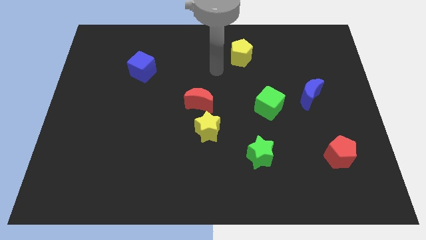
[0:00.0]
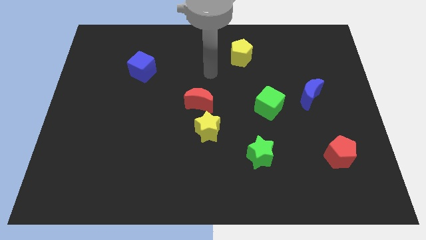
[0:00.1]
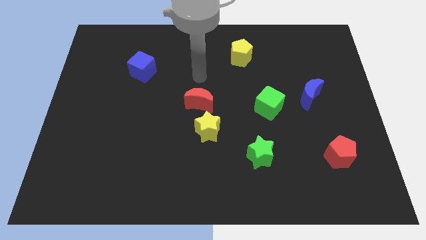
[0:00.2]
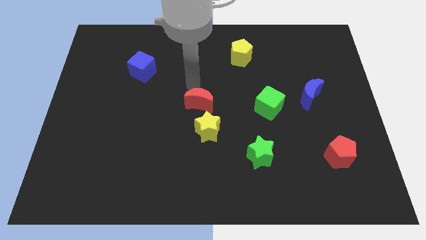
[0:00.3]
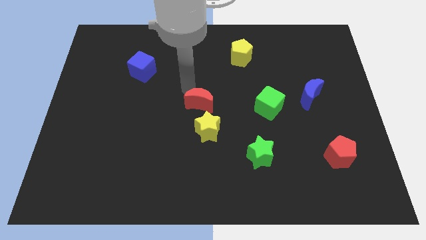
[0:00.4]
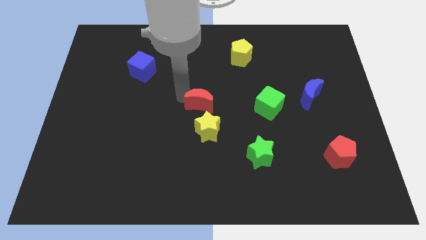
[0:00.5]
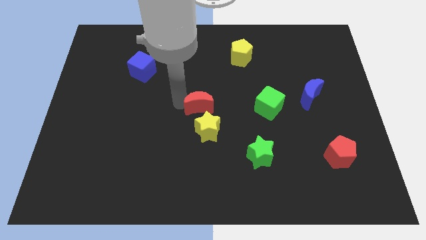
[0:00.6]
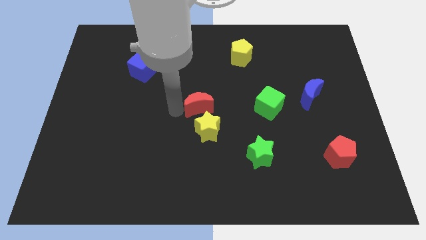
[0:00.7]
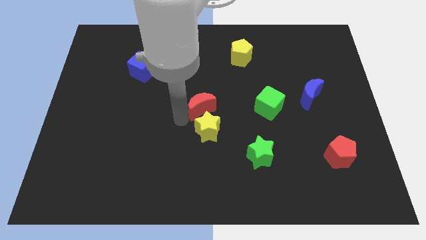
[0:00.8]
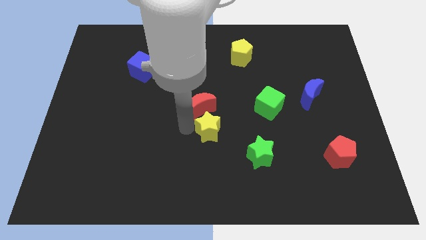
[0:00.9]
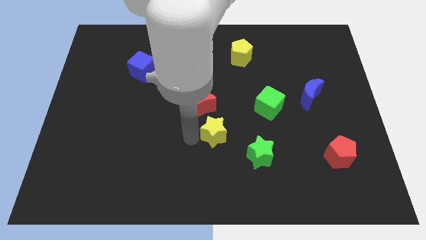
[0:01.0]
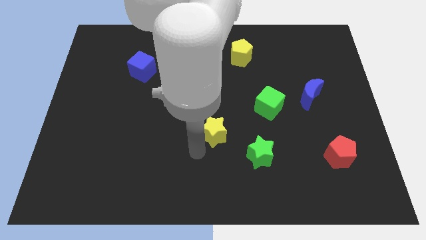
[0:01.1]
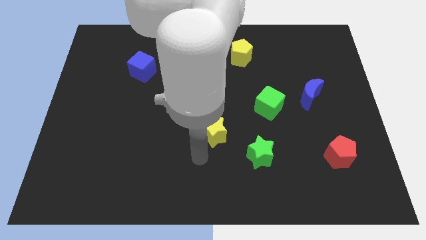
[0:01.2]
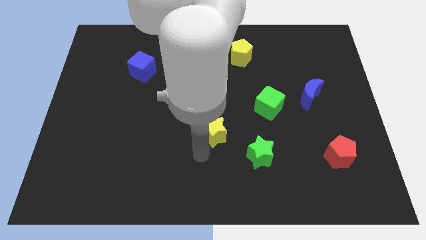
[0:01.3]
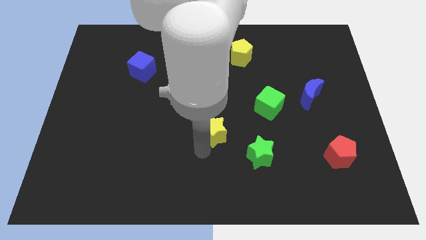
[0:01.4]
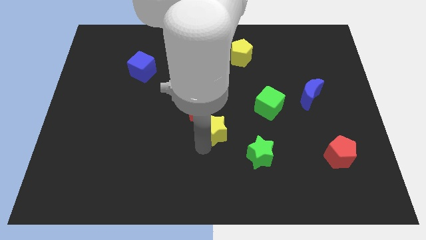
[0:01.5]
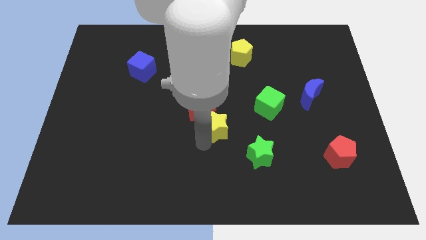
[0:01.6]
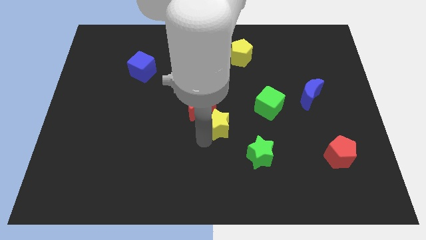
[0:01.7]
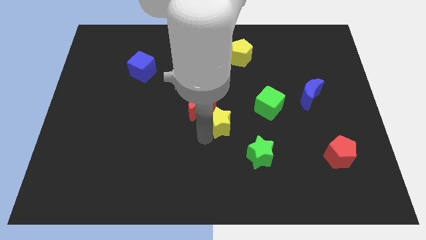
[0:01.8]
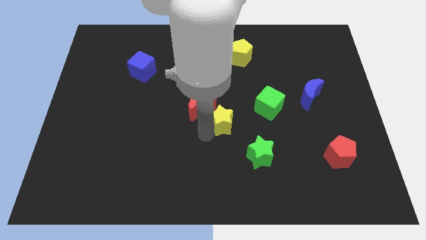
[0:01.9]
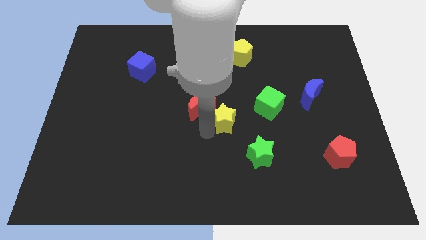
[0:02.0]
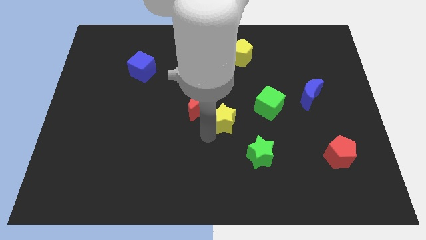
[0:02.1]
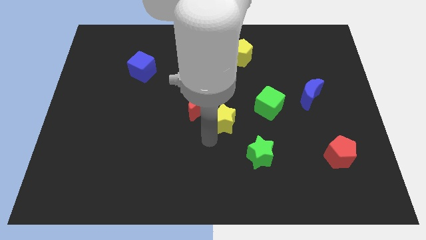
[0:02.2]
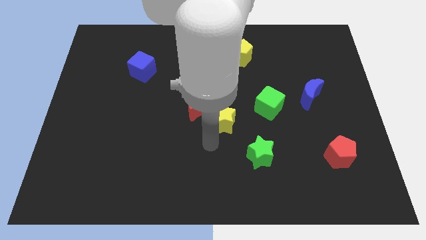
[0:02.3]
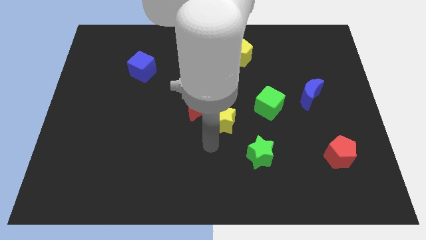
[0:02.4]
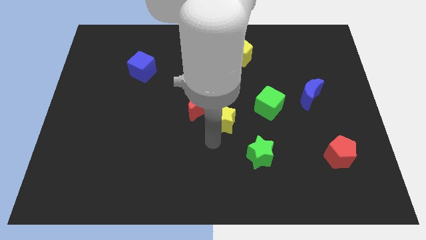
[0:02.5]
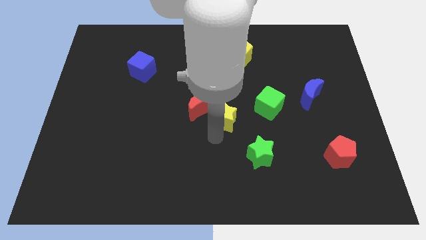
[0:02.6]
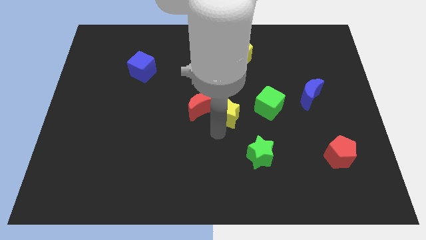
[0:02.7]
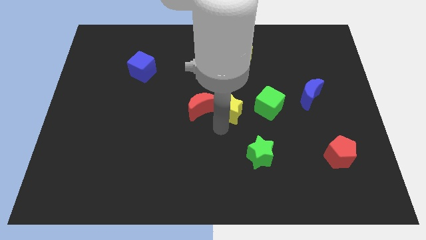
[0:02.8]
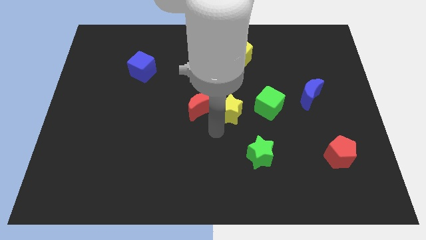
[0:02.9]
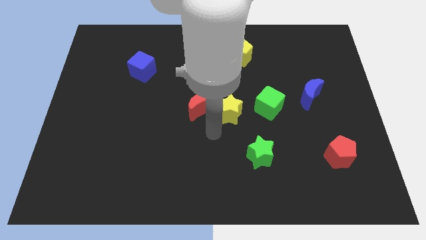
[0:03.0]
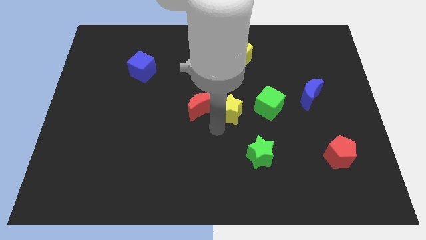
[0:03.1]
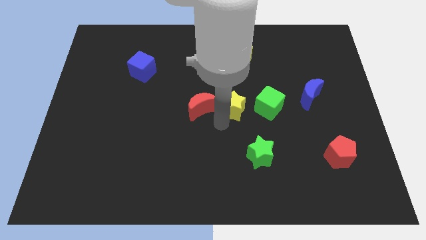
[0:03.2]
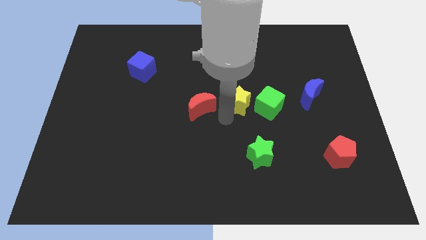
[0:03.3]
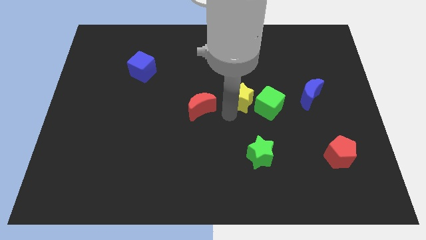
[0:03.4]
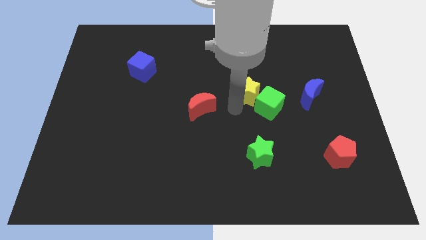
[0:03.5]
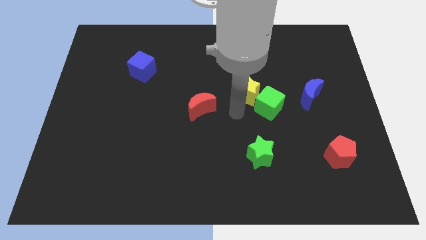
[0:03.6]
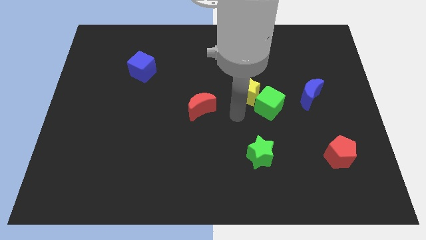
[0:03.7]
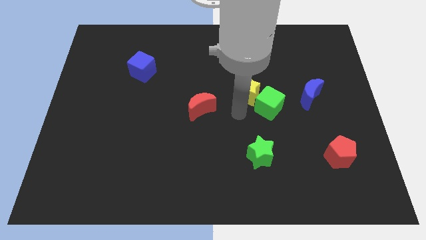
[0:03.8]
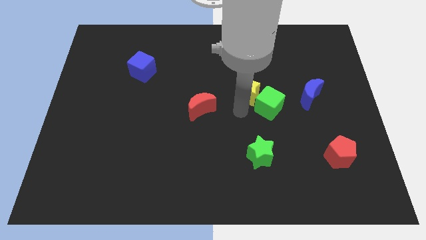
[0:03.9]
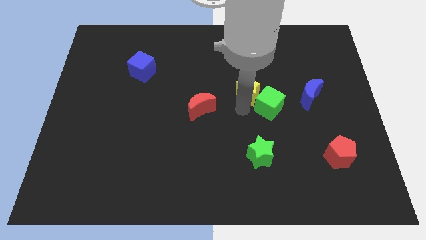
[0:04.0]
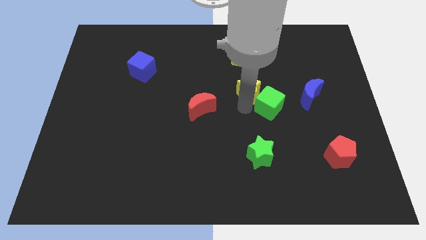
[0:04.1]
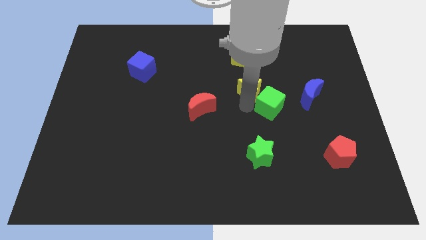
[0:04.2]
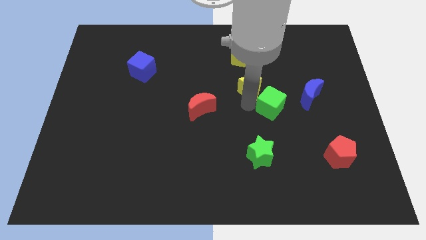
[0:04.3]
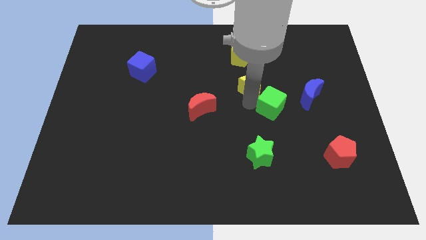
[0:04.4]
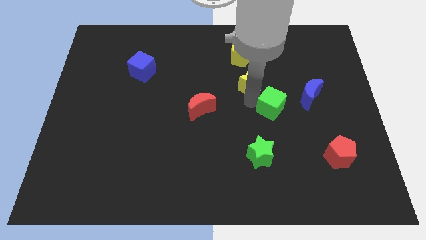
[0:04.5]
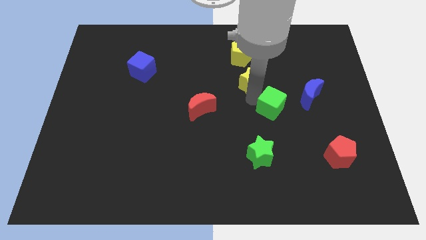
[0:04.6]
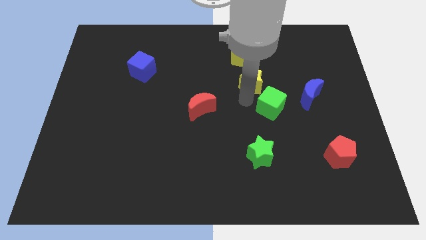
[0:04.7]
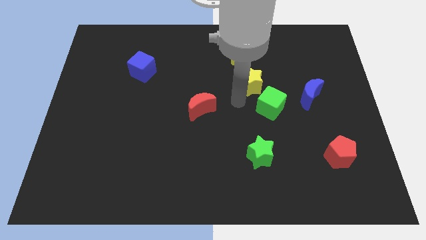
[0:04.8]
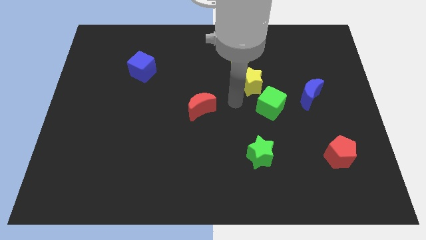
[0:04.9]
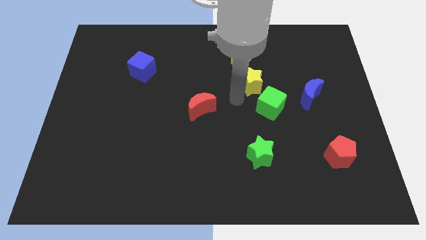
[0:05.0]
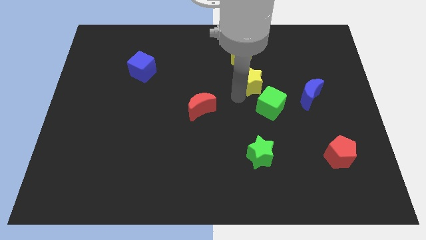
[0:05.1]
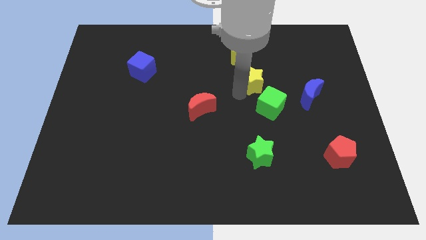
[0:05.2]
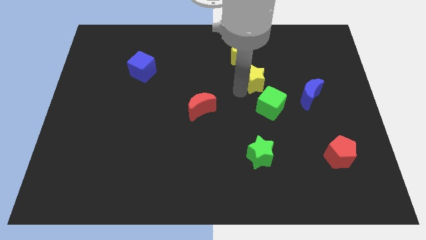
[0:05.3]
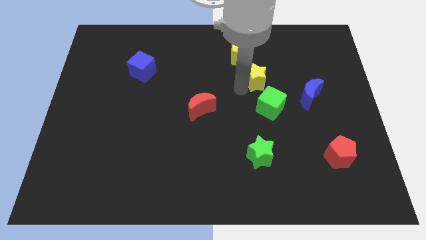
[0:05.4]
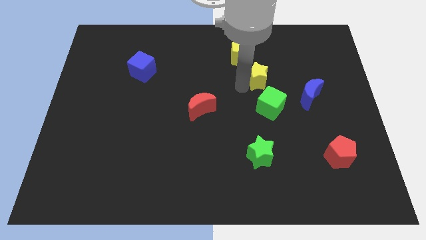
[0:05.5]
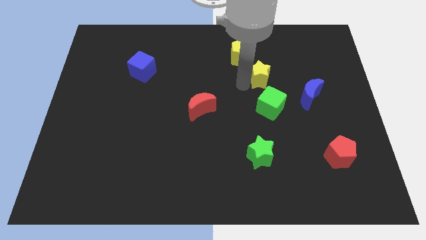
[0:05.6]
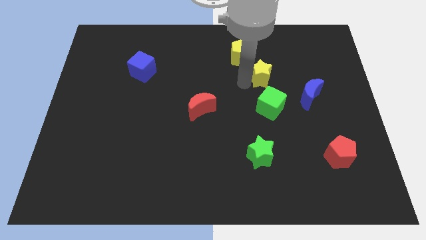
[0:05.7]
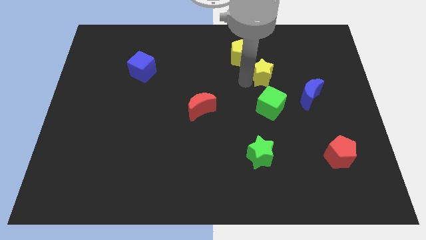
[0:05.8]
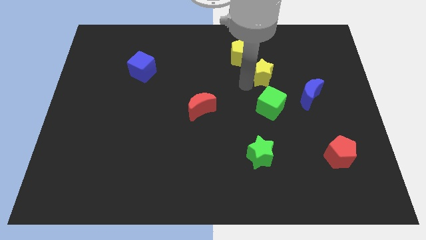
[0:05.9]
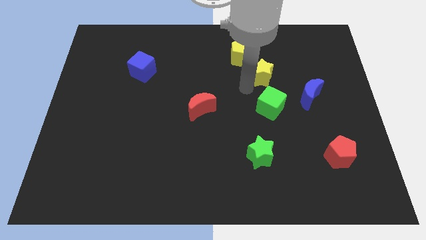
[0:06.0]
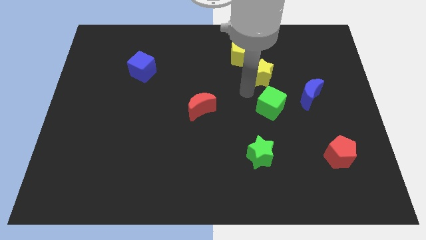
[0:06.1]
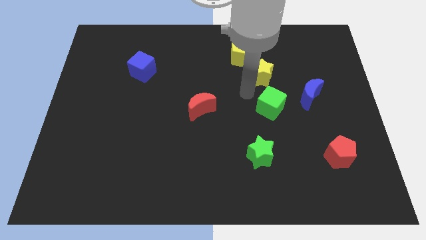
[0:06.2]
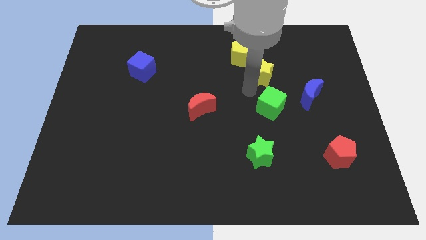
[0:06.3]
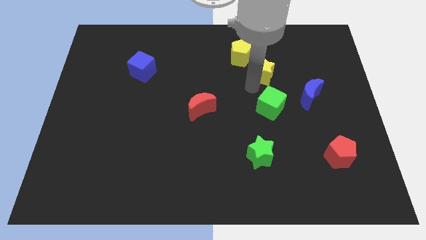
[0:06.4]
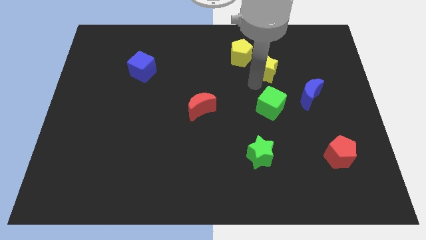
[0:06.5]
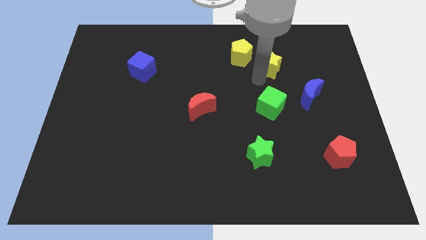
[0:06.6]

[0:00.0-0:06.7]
slide the yellow star right of the yellow pentagon

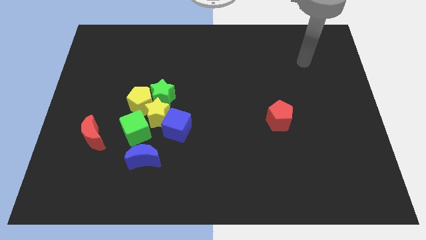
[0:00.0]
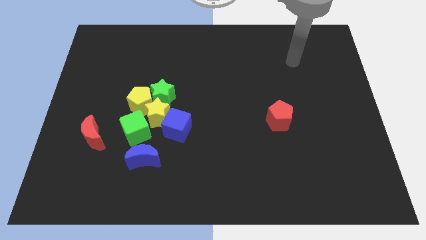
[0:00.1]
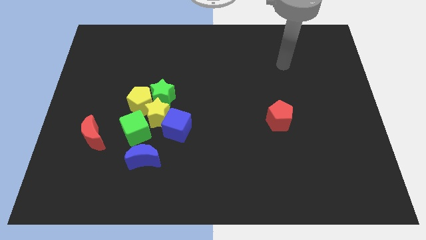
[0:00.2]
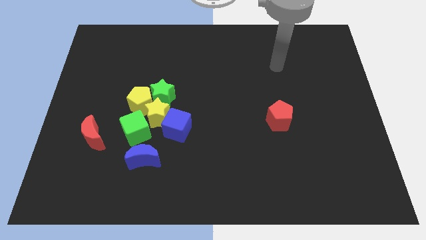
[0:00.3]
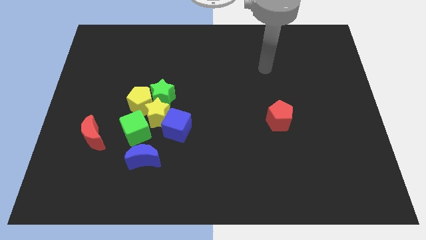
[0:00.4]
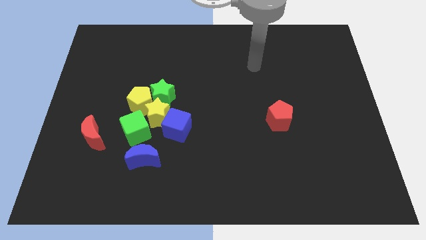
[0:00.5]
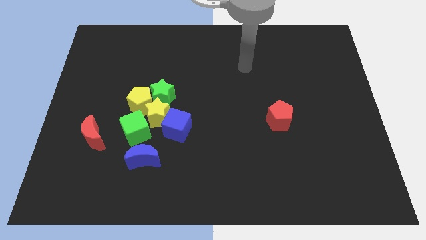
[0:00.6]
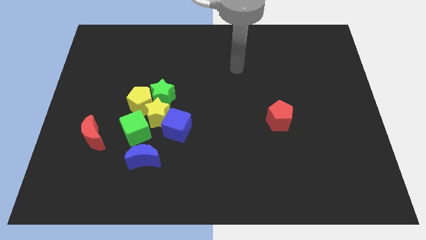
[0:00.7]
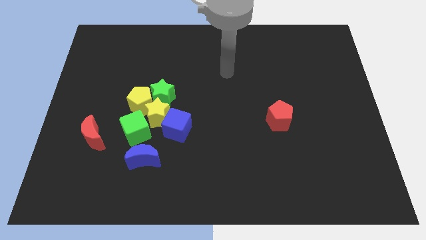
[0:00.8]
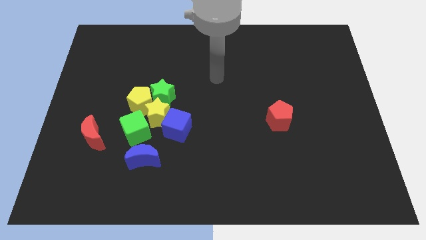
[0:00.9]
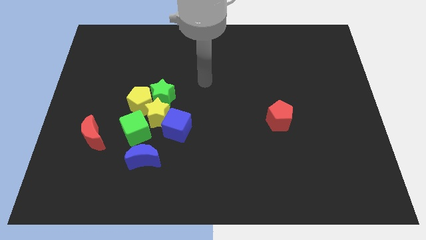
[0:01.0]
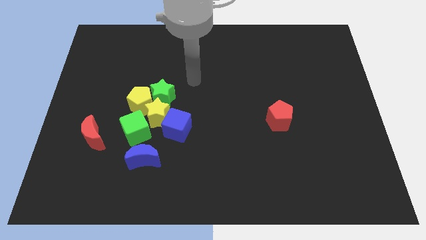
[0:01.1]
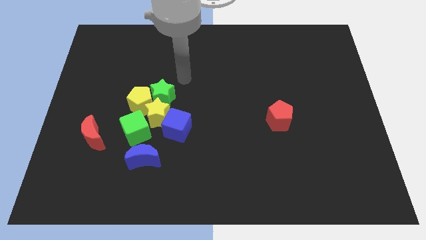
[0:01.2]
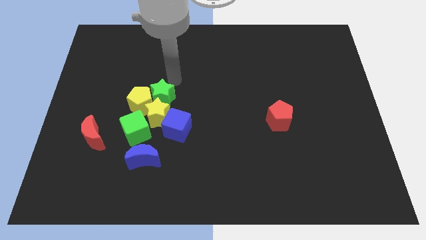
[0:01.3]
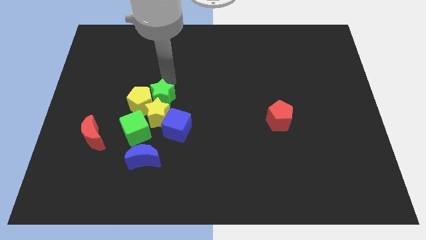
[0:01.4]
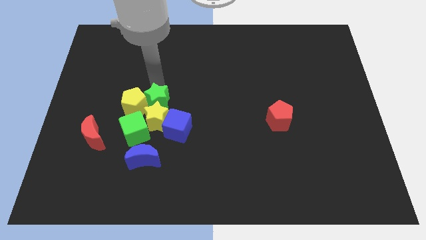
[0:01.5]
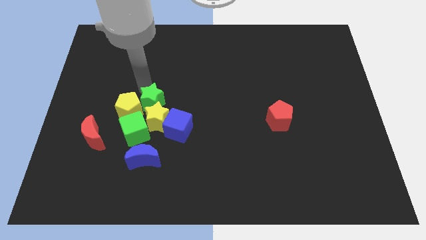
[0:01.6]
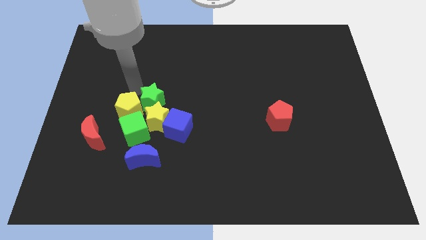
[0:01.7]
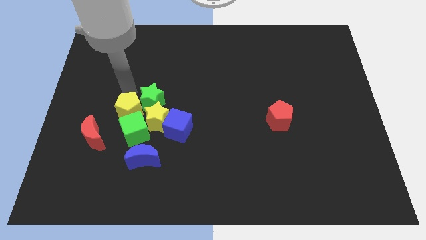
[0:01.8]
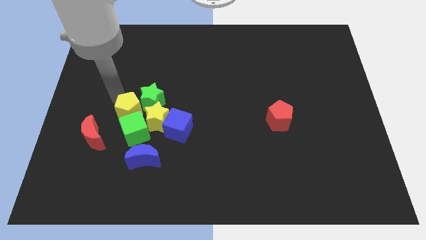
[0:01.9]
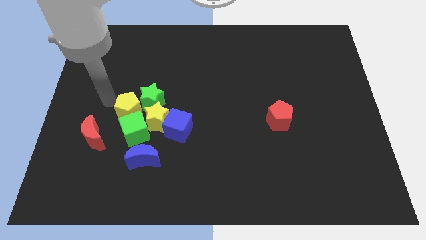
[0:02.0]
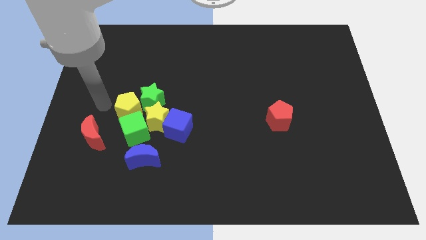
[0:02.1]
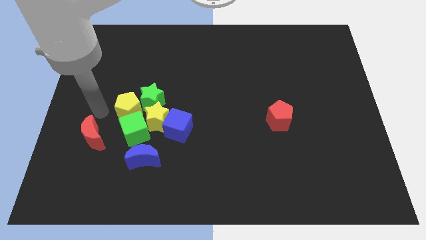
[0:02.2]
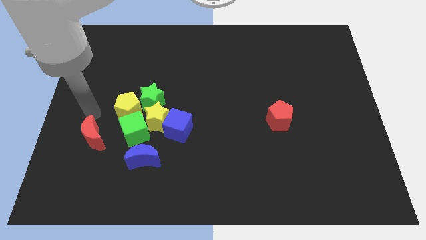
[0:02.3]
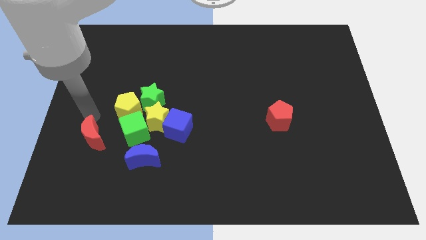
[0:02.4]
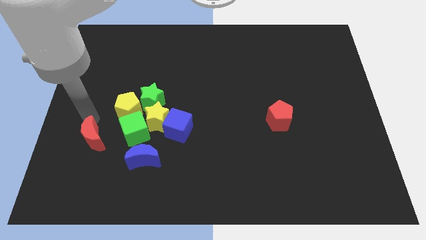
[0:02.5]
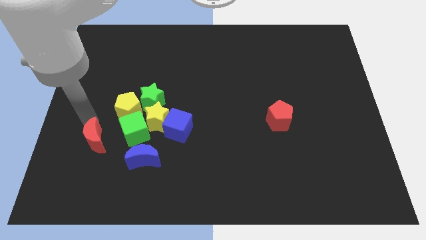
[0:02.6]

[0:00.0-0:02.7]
push the red moon left of the blue moon
